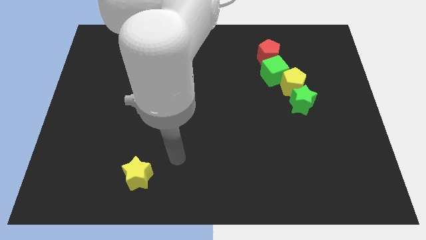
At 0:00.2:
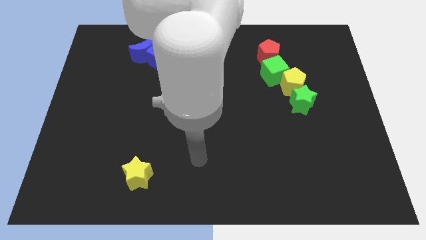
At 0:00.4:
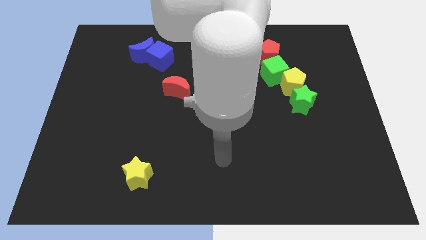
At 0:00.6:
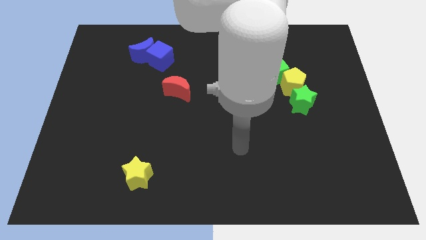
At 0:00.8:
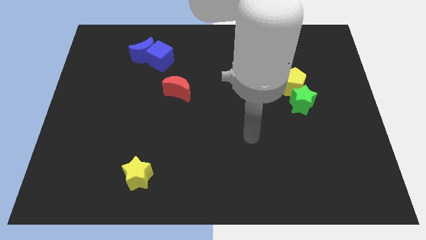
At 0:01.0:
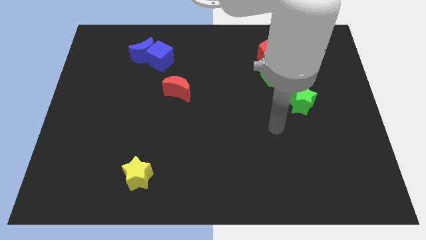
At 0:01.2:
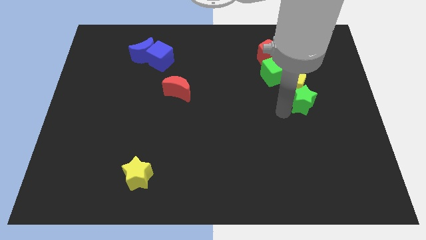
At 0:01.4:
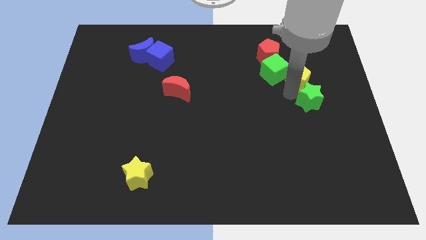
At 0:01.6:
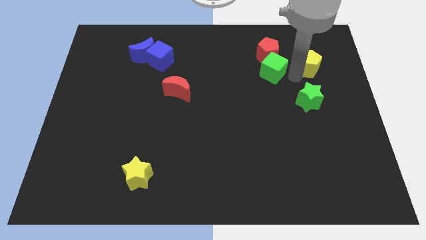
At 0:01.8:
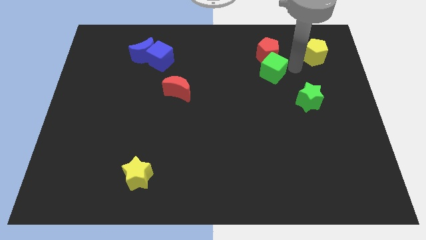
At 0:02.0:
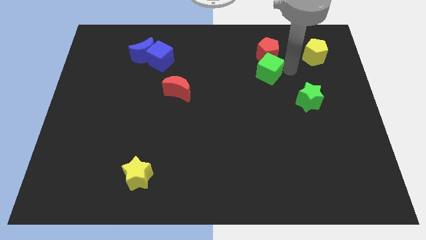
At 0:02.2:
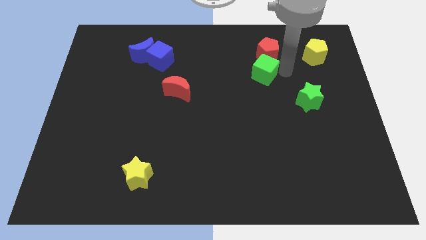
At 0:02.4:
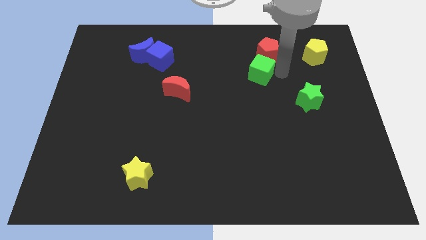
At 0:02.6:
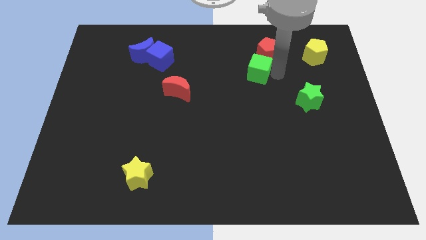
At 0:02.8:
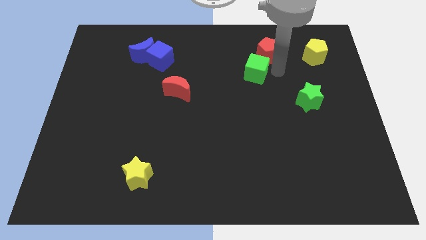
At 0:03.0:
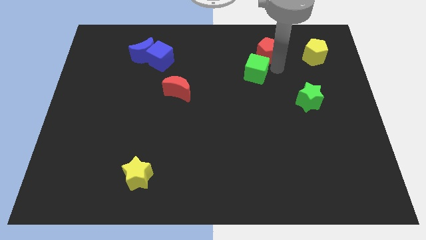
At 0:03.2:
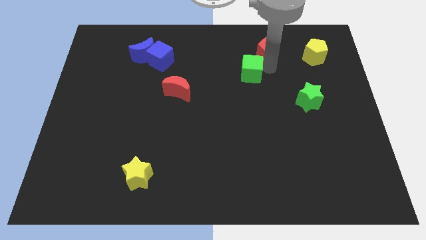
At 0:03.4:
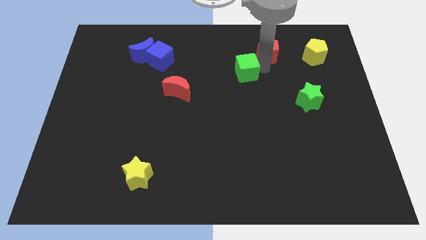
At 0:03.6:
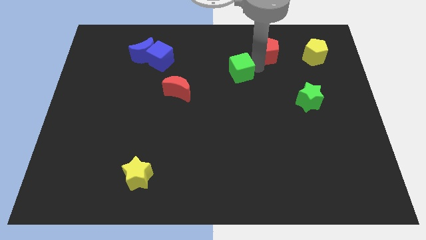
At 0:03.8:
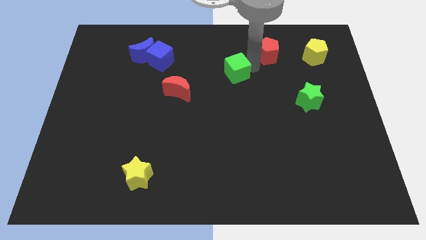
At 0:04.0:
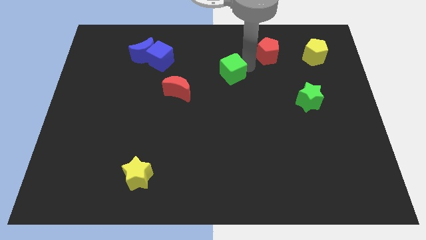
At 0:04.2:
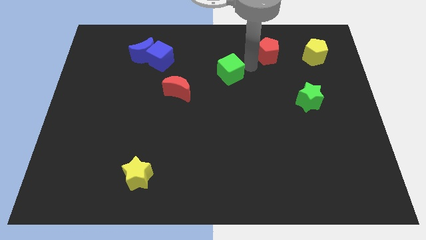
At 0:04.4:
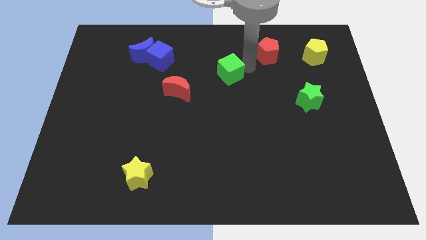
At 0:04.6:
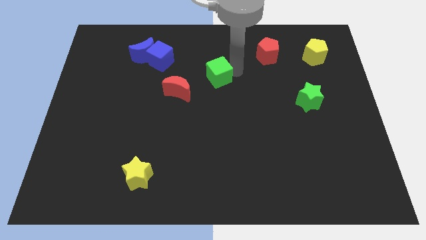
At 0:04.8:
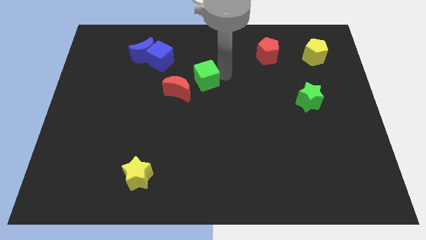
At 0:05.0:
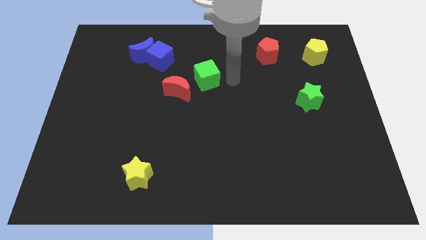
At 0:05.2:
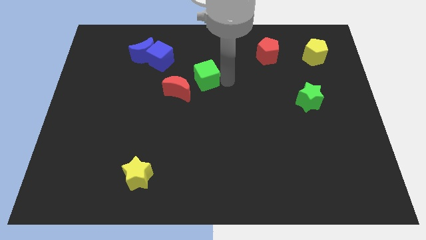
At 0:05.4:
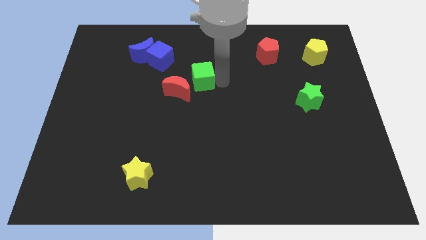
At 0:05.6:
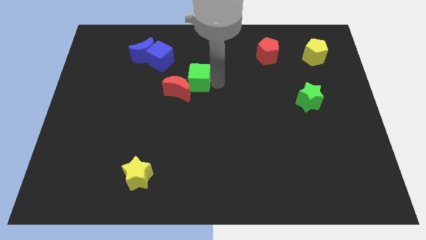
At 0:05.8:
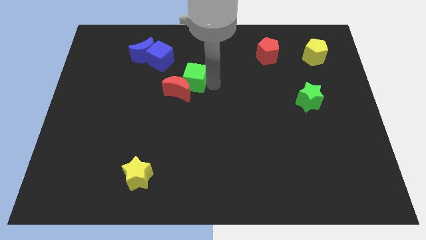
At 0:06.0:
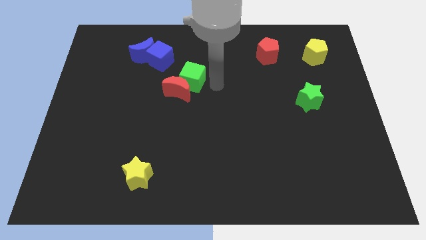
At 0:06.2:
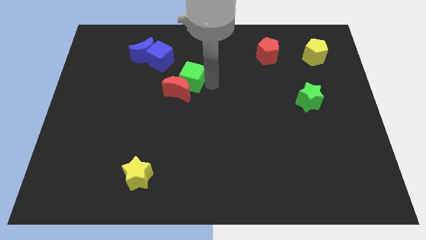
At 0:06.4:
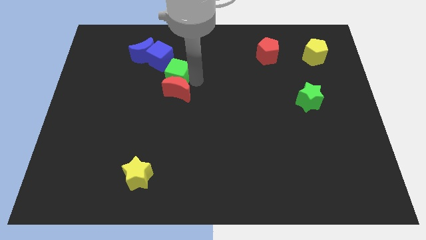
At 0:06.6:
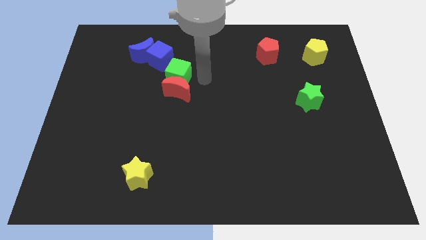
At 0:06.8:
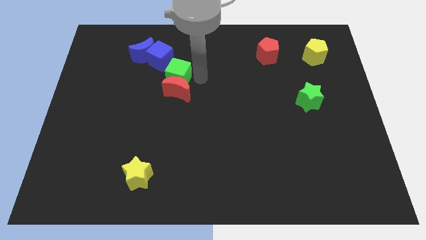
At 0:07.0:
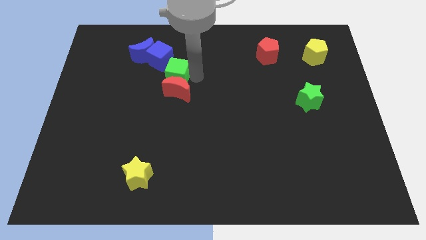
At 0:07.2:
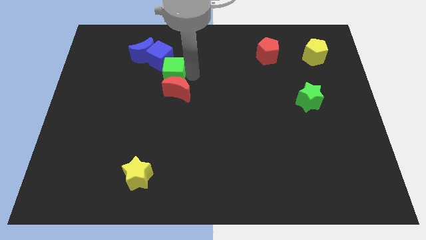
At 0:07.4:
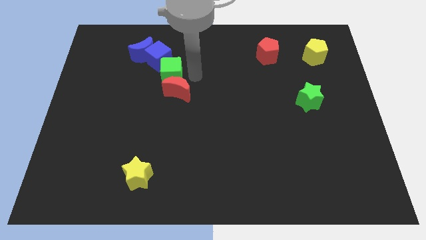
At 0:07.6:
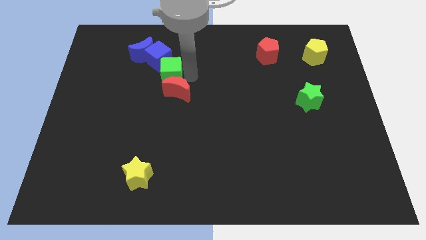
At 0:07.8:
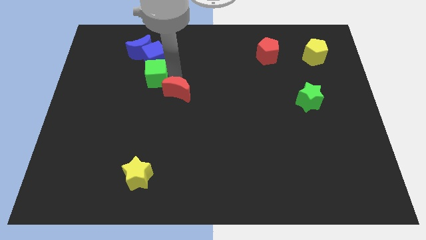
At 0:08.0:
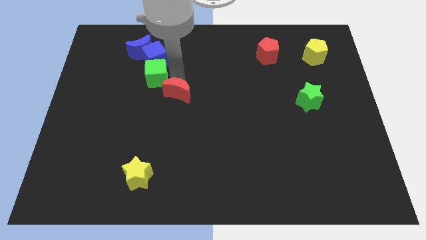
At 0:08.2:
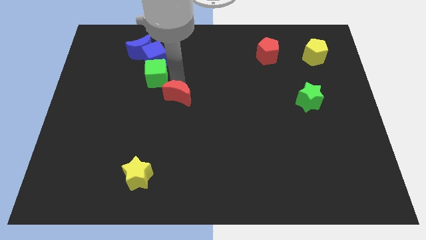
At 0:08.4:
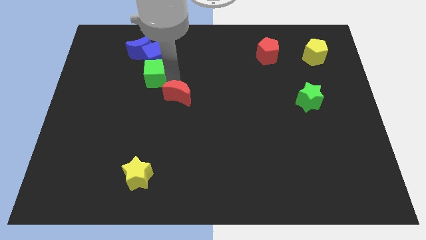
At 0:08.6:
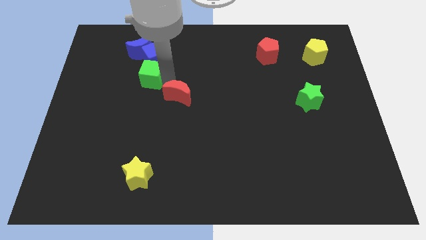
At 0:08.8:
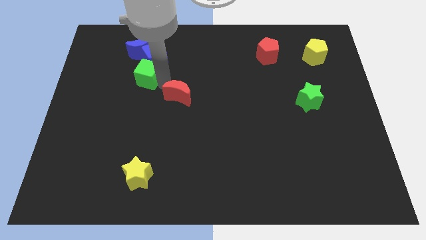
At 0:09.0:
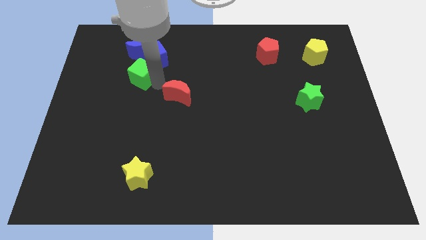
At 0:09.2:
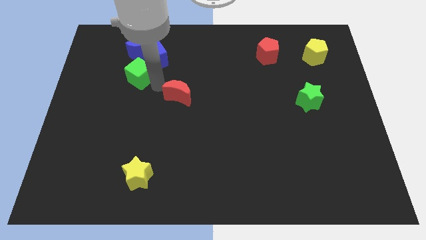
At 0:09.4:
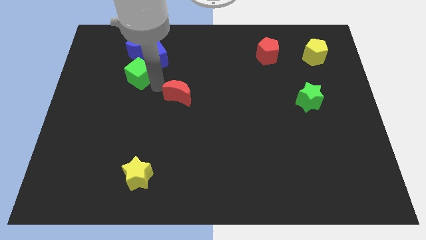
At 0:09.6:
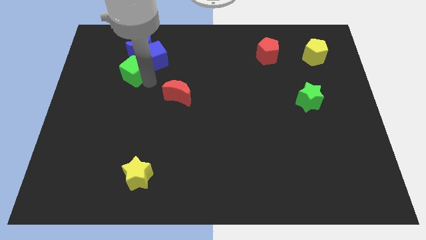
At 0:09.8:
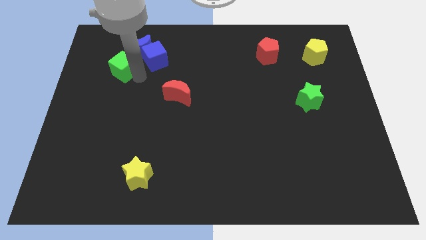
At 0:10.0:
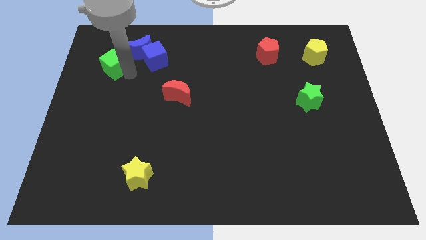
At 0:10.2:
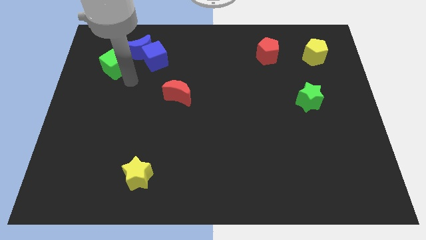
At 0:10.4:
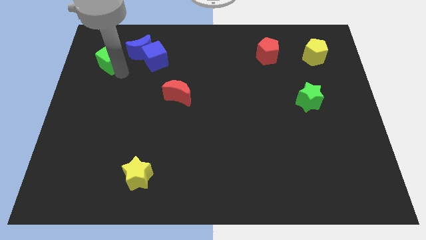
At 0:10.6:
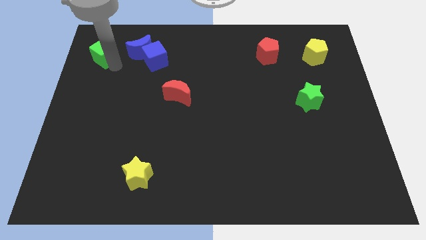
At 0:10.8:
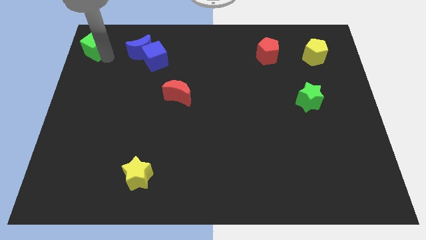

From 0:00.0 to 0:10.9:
push the green cube to the top left

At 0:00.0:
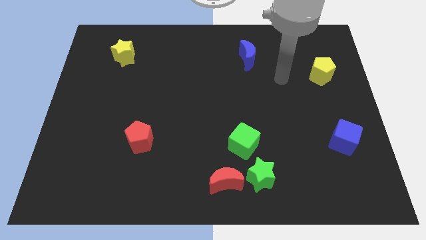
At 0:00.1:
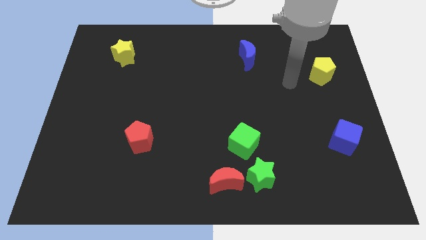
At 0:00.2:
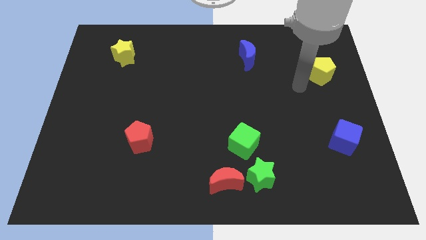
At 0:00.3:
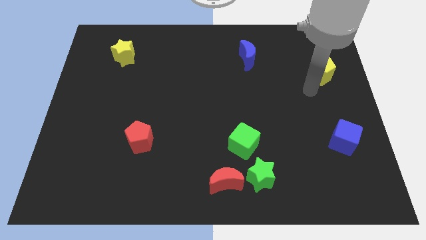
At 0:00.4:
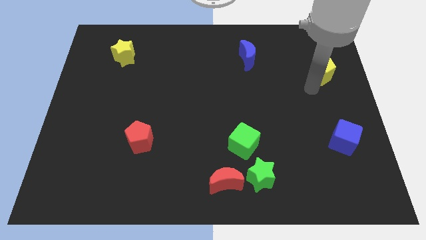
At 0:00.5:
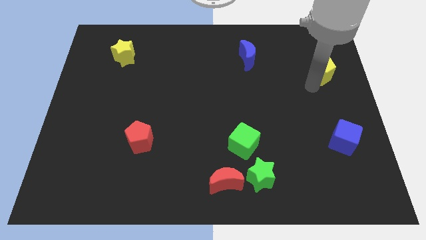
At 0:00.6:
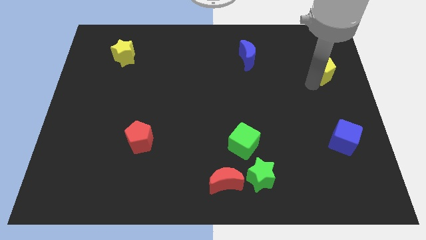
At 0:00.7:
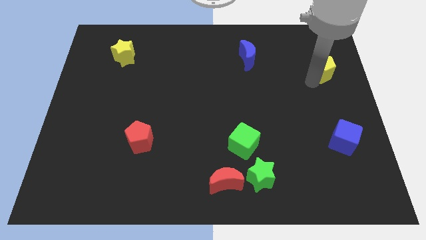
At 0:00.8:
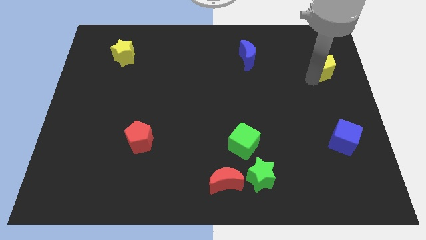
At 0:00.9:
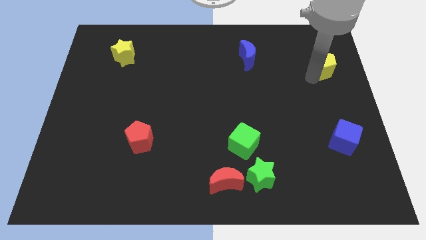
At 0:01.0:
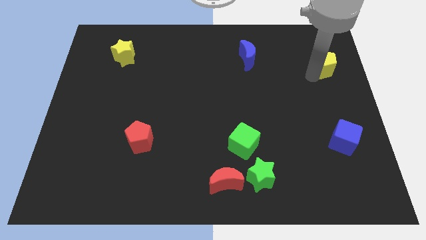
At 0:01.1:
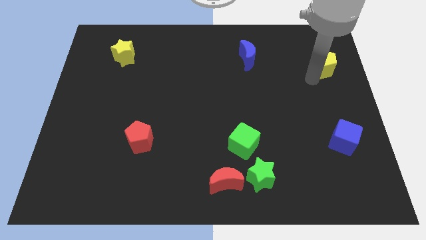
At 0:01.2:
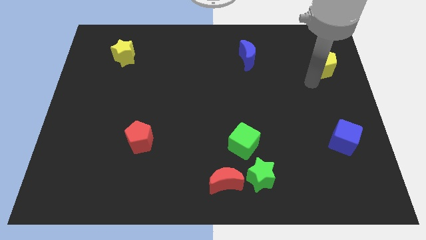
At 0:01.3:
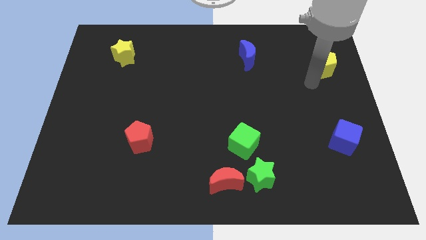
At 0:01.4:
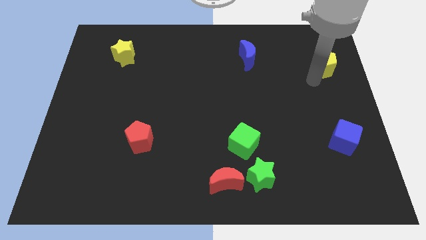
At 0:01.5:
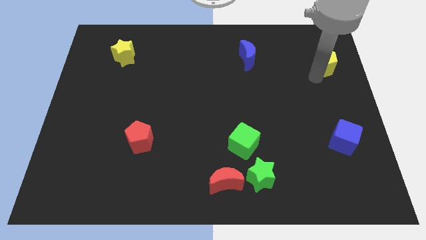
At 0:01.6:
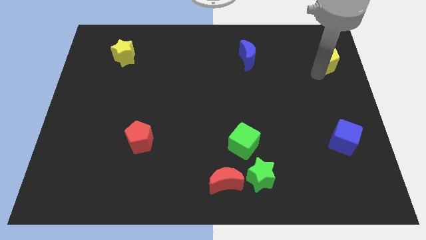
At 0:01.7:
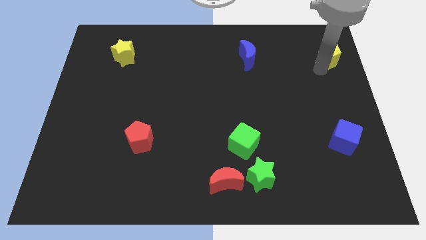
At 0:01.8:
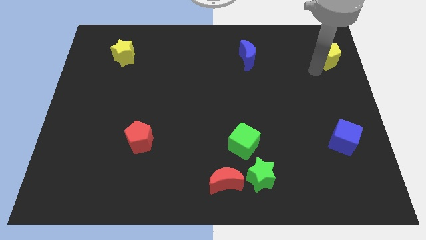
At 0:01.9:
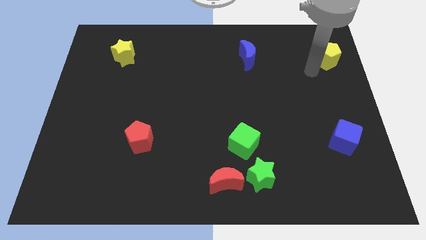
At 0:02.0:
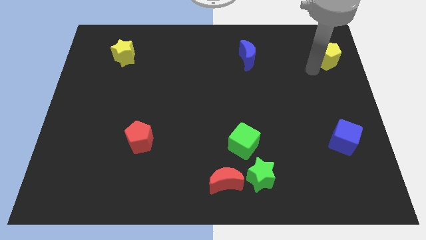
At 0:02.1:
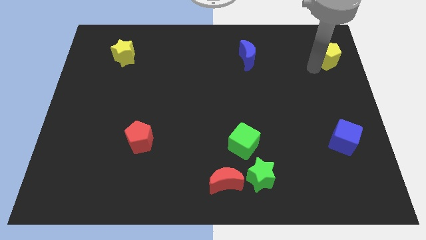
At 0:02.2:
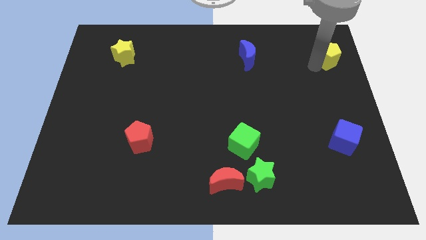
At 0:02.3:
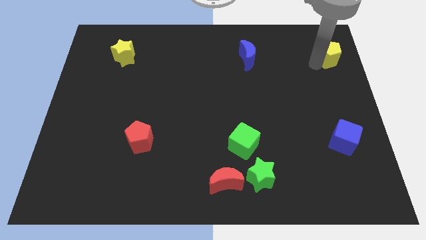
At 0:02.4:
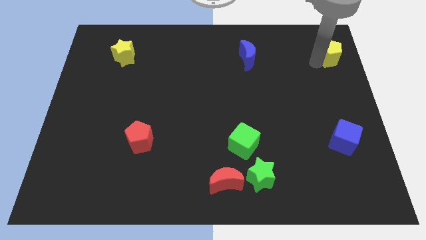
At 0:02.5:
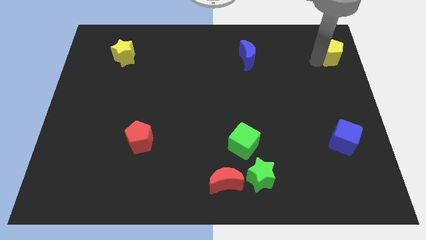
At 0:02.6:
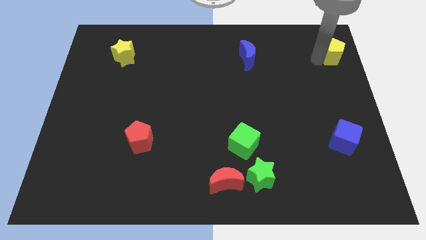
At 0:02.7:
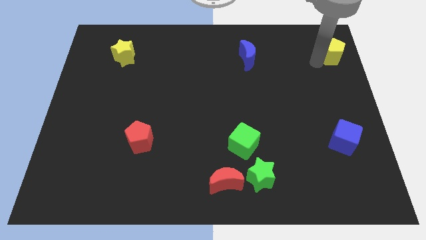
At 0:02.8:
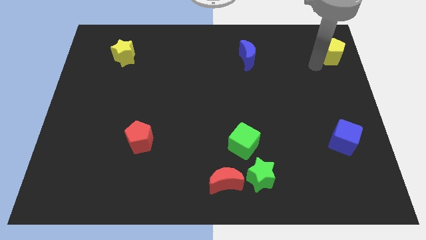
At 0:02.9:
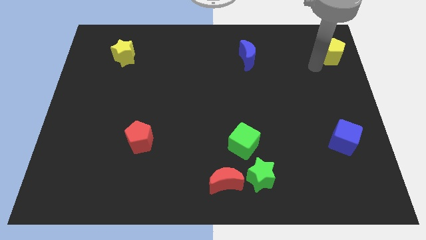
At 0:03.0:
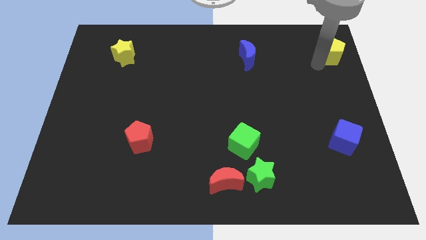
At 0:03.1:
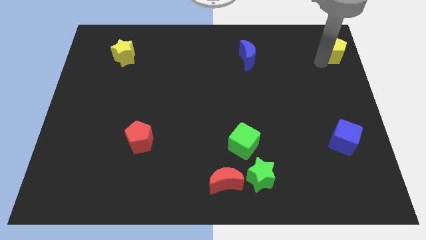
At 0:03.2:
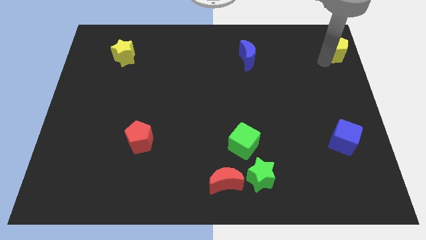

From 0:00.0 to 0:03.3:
put the yellow pentagon to the upper right corner
